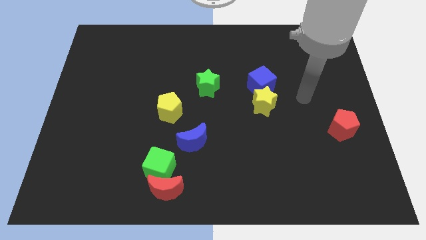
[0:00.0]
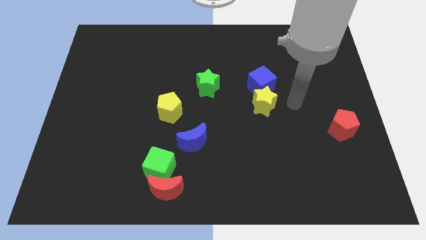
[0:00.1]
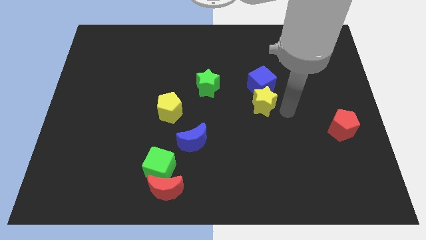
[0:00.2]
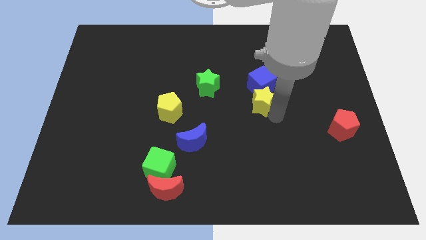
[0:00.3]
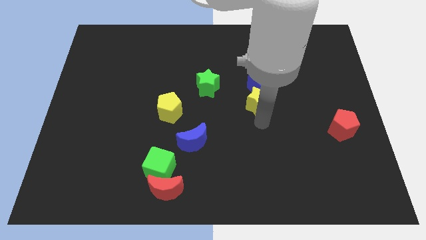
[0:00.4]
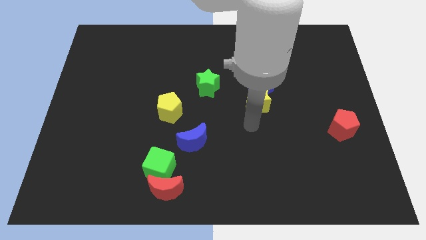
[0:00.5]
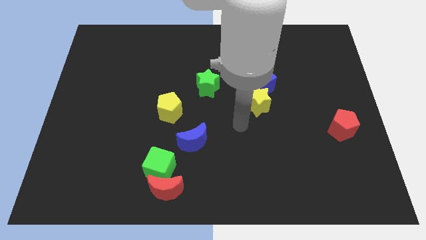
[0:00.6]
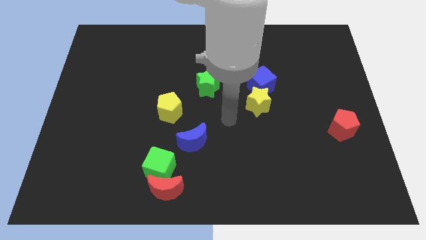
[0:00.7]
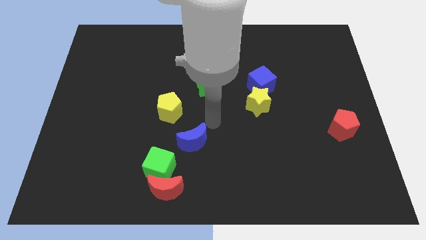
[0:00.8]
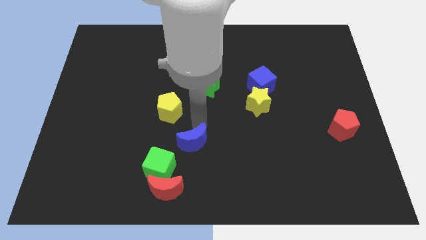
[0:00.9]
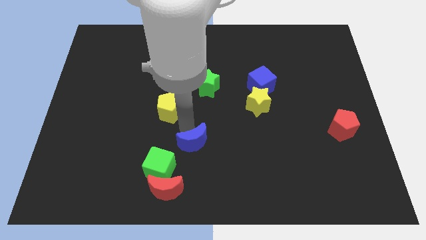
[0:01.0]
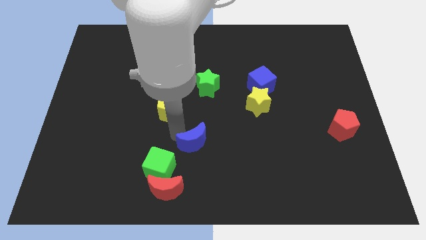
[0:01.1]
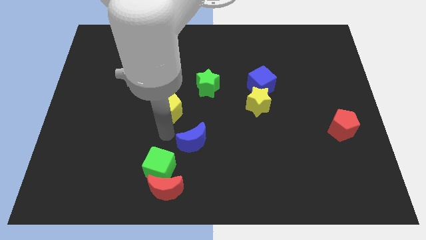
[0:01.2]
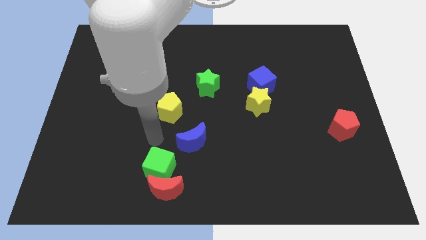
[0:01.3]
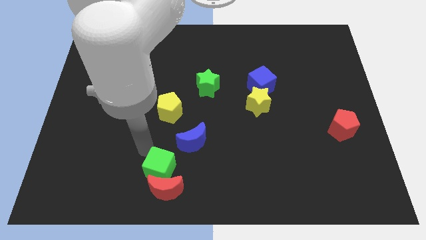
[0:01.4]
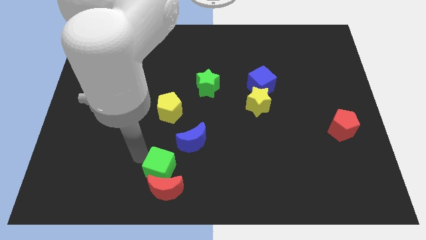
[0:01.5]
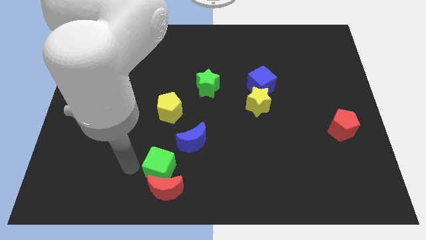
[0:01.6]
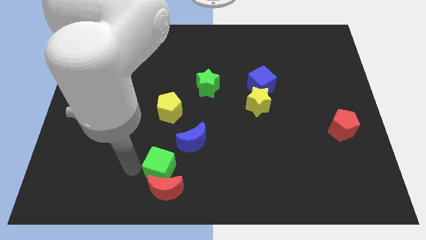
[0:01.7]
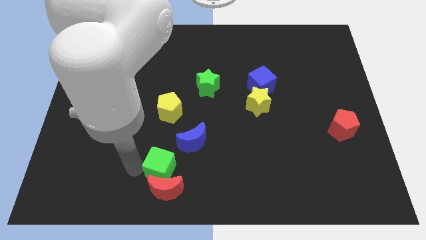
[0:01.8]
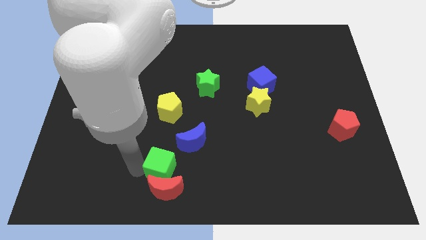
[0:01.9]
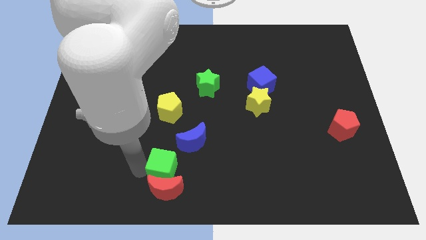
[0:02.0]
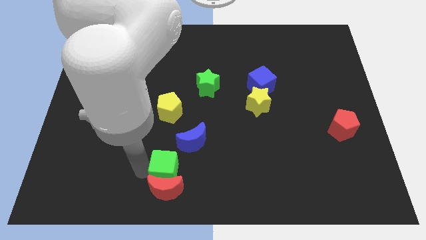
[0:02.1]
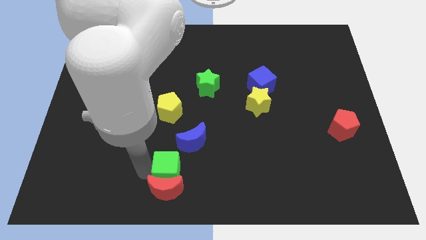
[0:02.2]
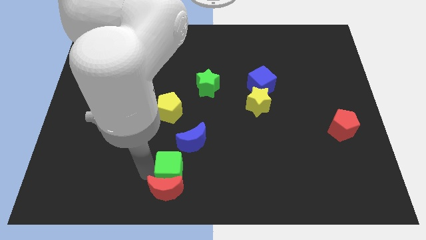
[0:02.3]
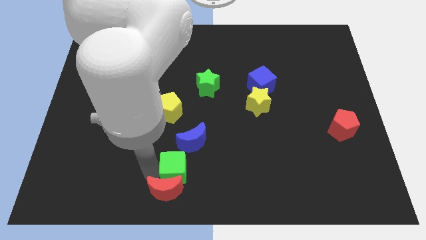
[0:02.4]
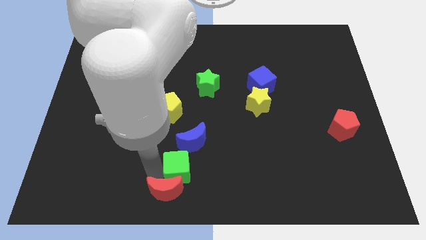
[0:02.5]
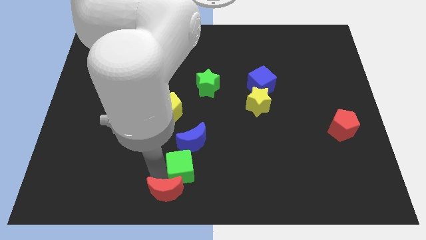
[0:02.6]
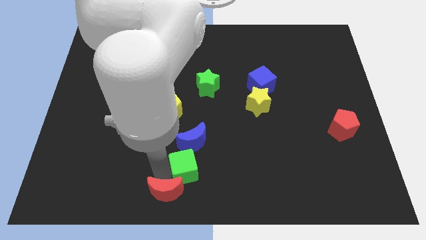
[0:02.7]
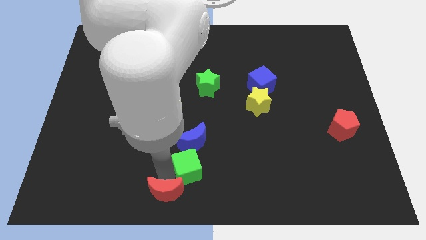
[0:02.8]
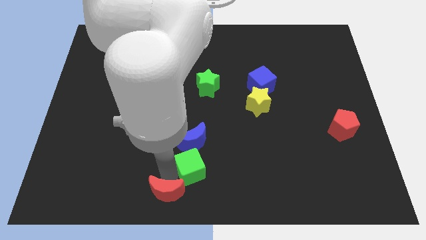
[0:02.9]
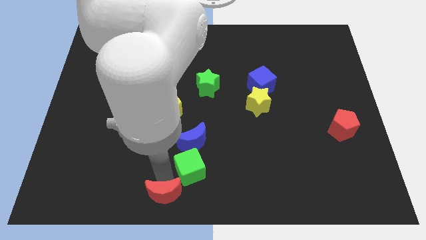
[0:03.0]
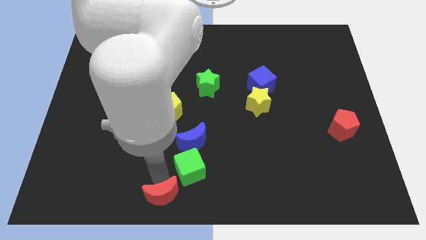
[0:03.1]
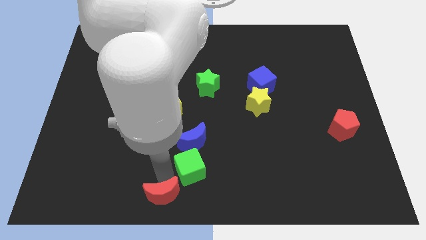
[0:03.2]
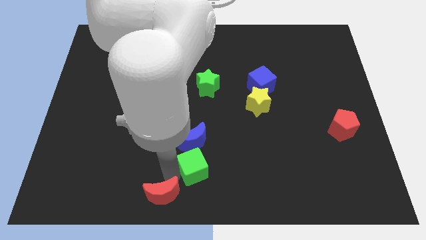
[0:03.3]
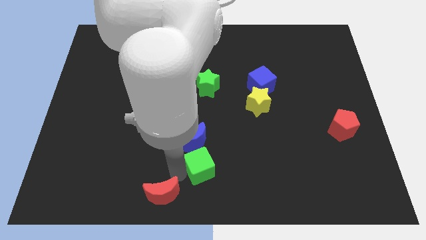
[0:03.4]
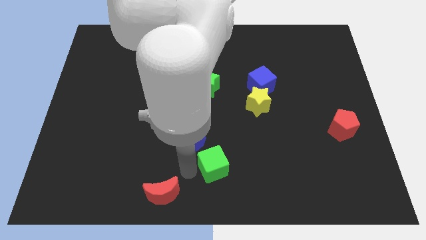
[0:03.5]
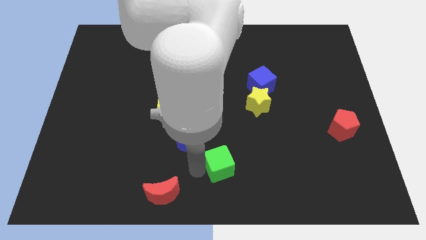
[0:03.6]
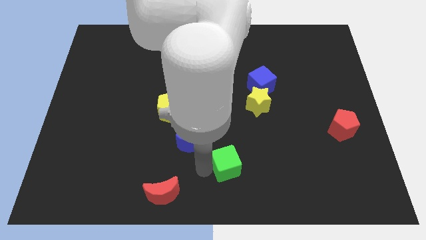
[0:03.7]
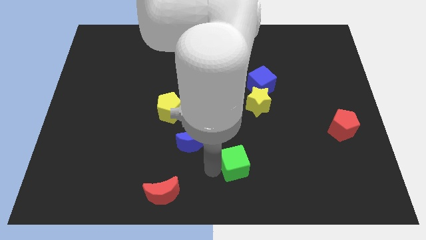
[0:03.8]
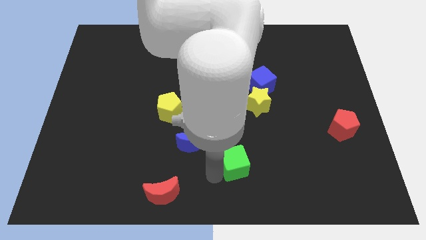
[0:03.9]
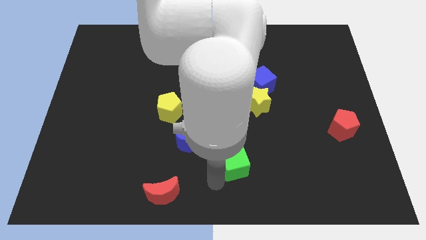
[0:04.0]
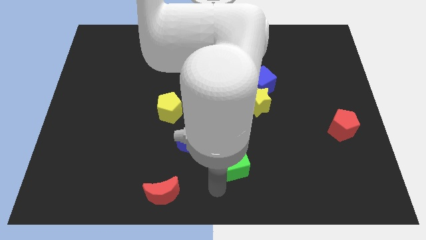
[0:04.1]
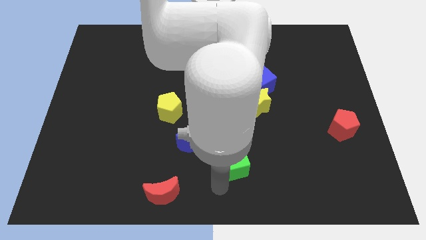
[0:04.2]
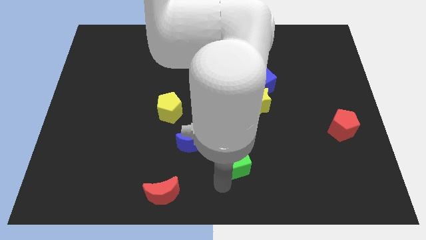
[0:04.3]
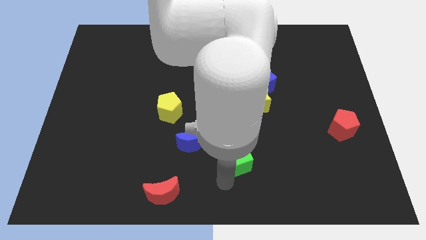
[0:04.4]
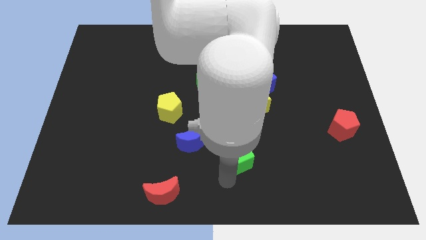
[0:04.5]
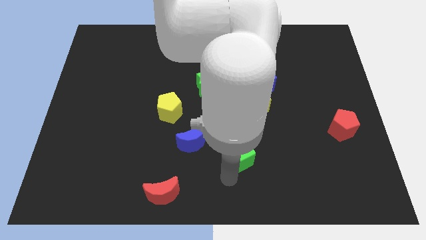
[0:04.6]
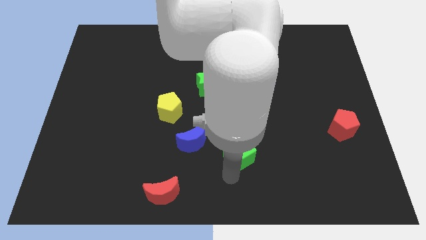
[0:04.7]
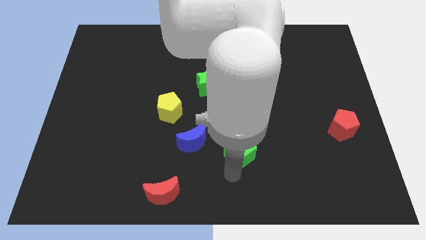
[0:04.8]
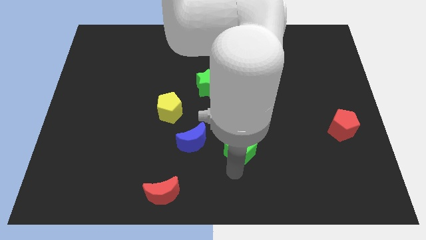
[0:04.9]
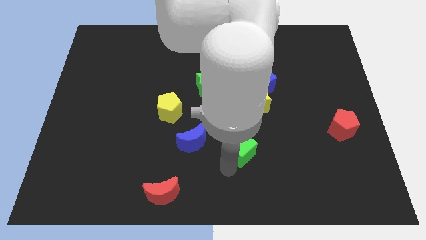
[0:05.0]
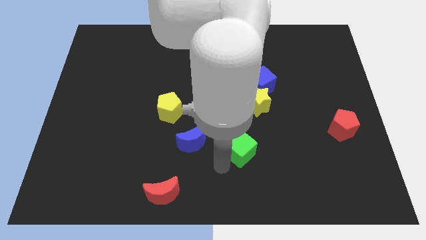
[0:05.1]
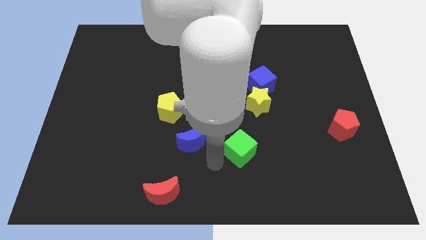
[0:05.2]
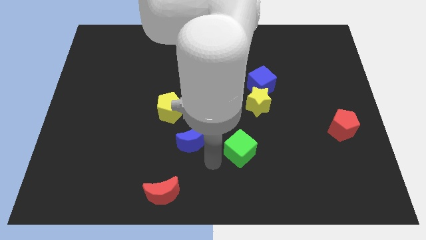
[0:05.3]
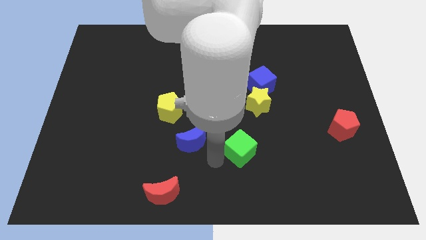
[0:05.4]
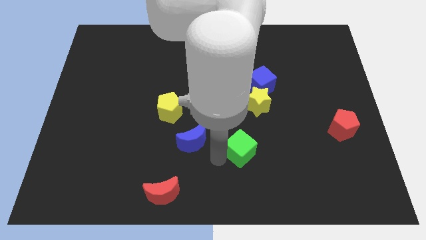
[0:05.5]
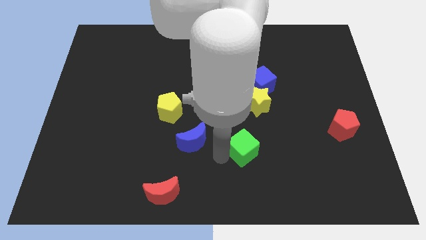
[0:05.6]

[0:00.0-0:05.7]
push the green cube to the bottom side of the yellow star
